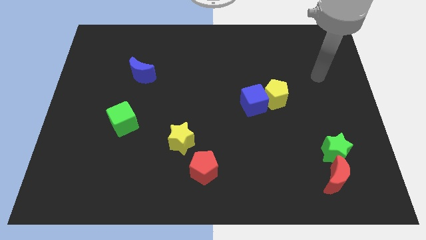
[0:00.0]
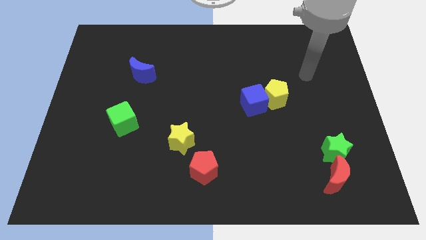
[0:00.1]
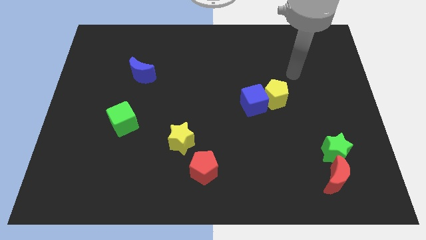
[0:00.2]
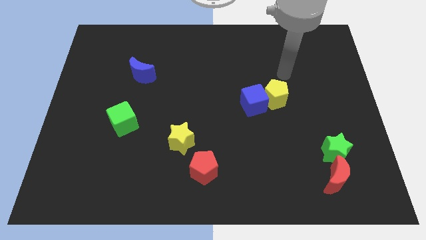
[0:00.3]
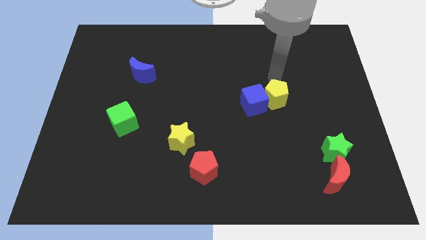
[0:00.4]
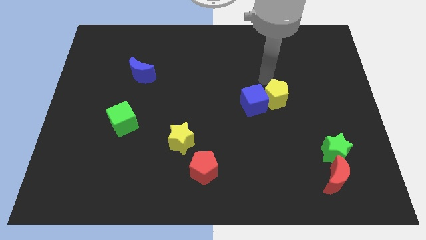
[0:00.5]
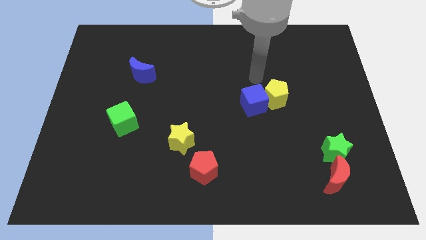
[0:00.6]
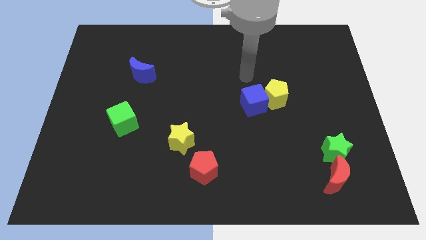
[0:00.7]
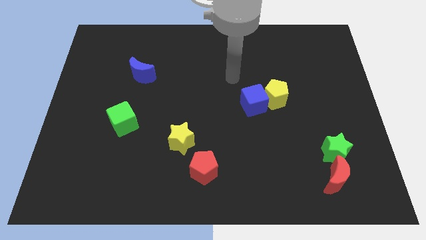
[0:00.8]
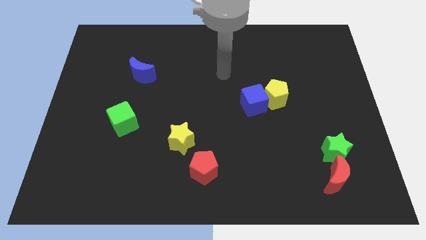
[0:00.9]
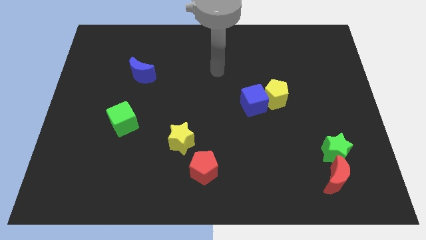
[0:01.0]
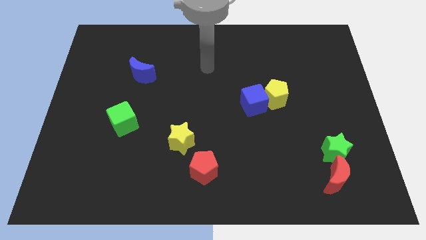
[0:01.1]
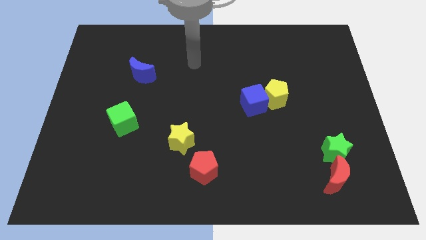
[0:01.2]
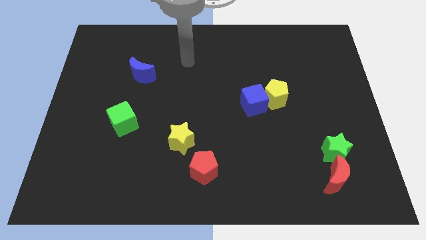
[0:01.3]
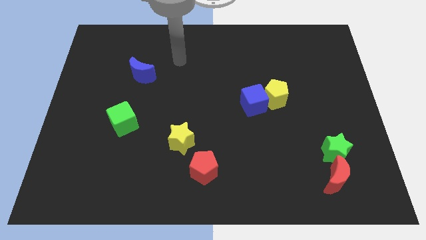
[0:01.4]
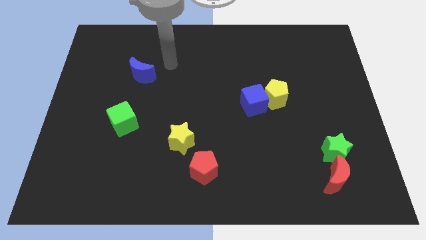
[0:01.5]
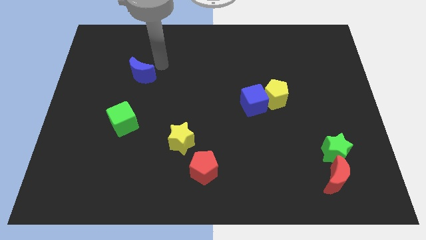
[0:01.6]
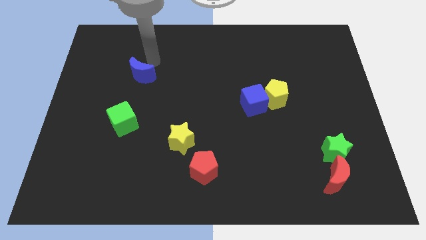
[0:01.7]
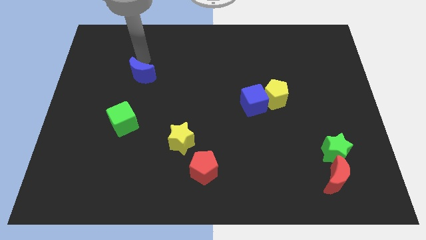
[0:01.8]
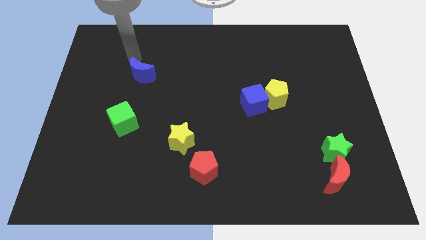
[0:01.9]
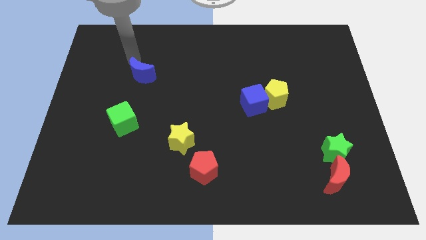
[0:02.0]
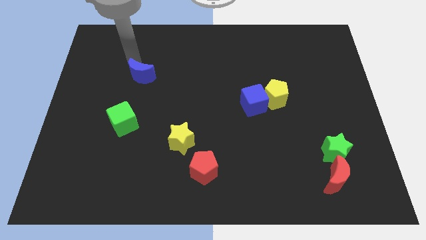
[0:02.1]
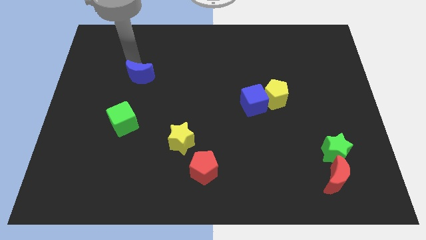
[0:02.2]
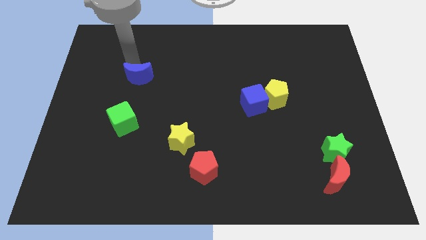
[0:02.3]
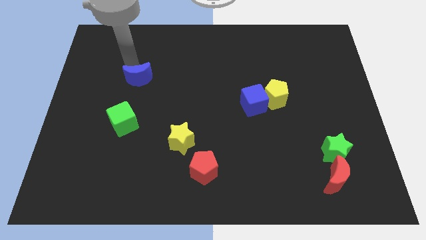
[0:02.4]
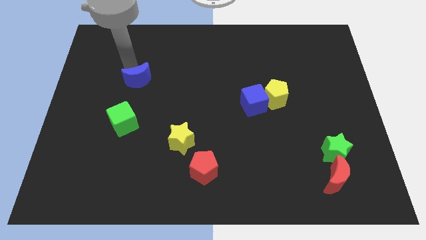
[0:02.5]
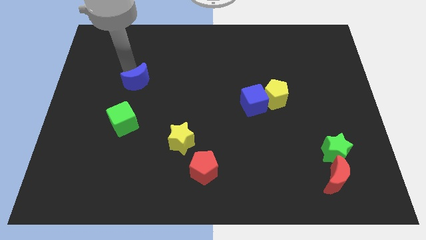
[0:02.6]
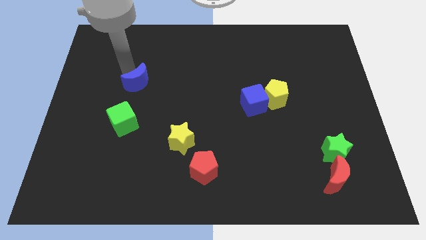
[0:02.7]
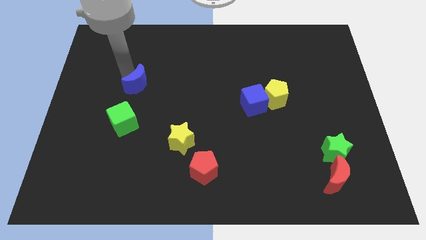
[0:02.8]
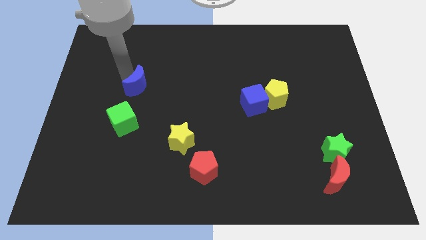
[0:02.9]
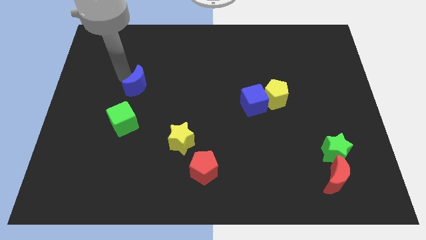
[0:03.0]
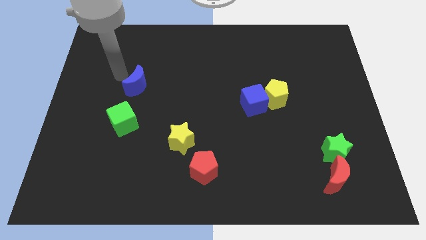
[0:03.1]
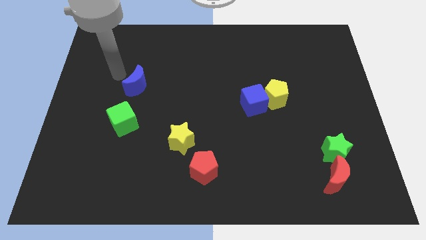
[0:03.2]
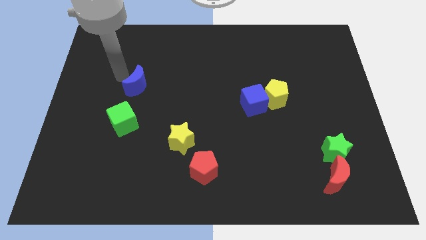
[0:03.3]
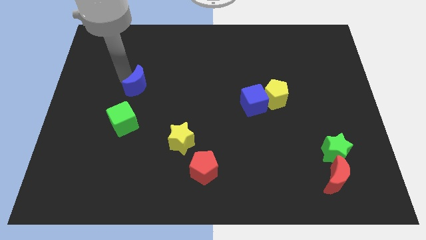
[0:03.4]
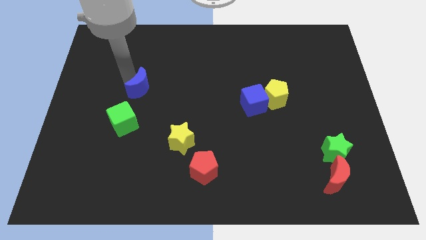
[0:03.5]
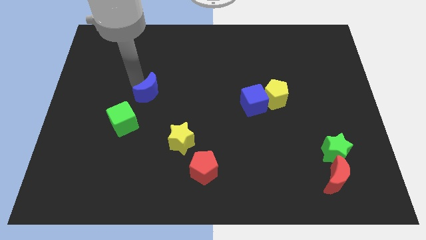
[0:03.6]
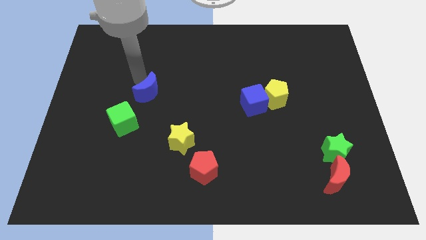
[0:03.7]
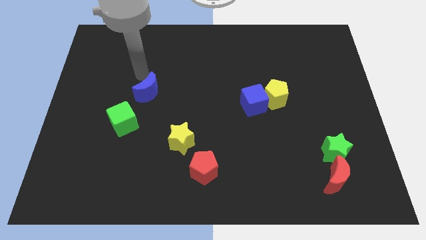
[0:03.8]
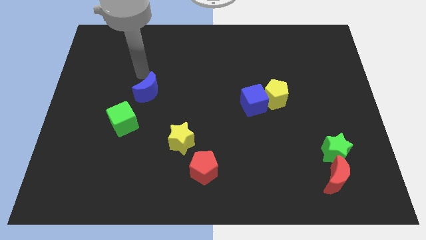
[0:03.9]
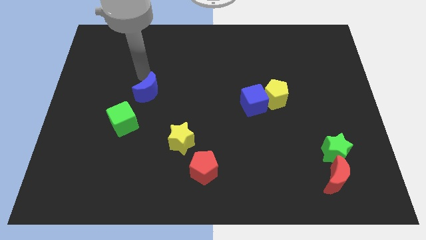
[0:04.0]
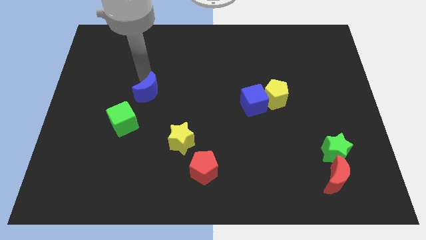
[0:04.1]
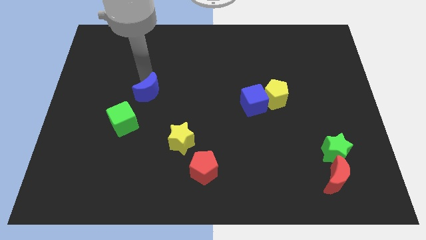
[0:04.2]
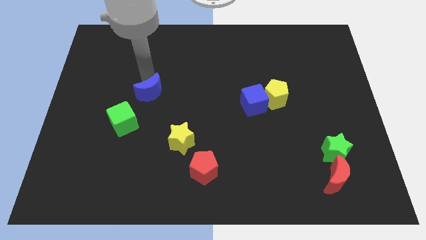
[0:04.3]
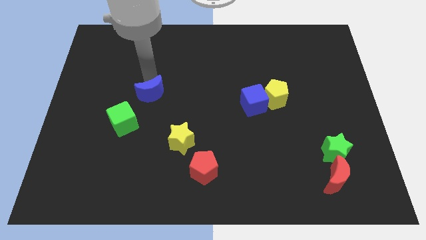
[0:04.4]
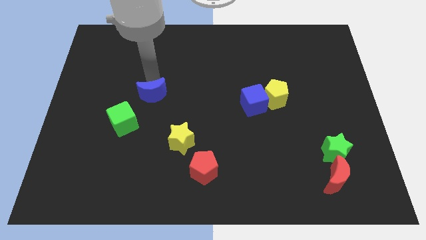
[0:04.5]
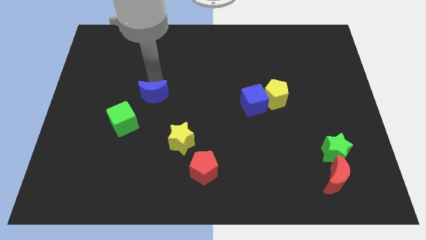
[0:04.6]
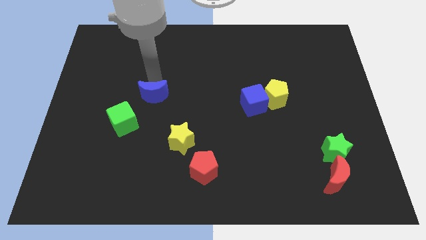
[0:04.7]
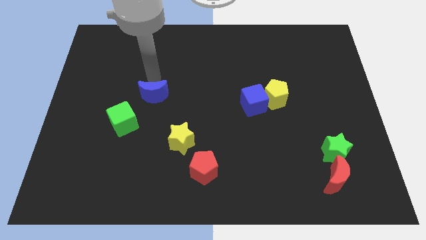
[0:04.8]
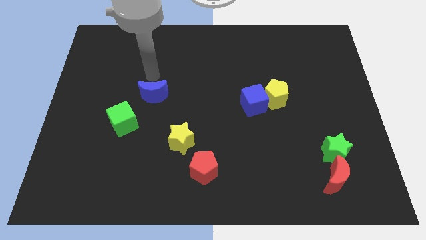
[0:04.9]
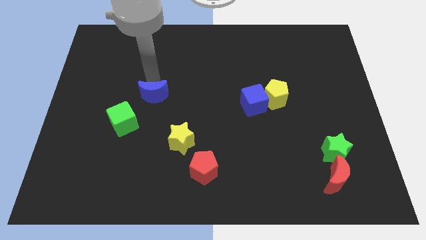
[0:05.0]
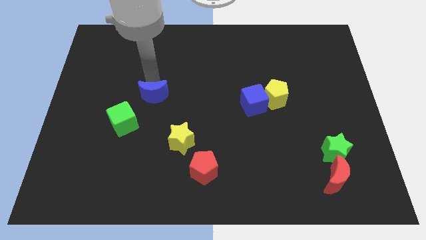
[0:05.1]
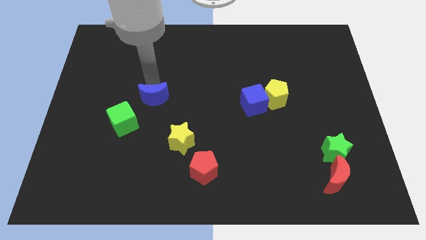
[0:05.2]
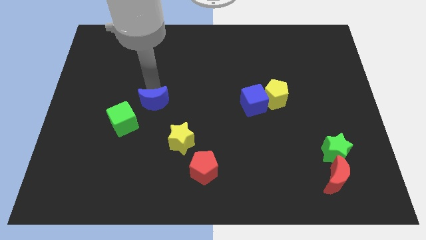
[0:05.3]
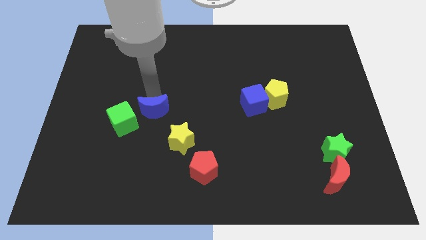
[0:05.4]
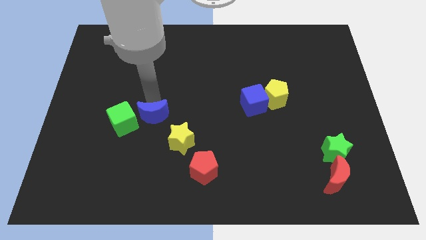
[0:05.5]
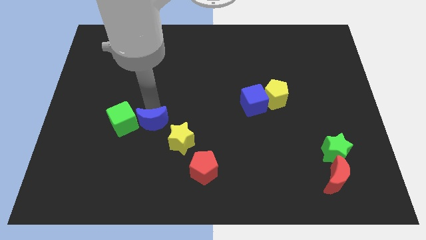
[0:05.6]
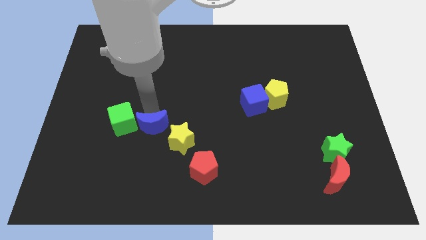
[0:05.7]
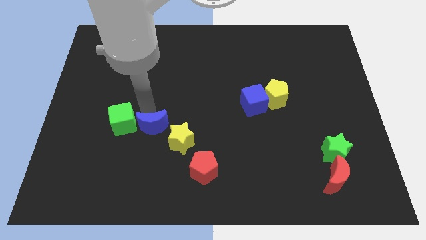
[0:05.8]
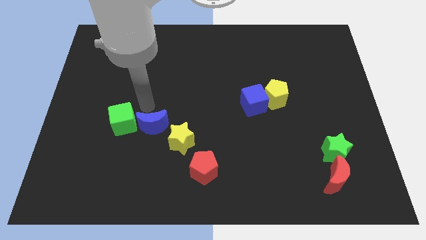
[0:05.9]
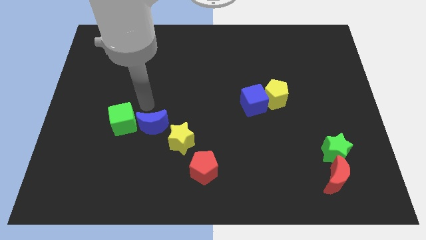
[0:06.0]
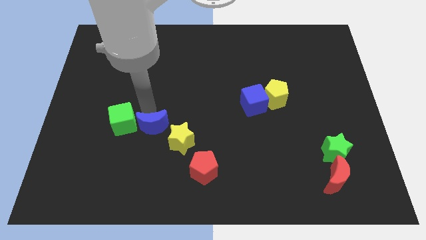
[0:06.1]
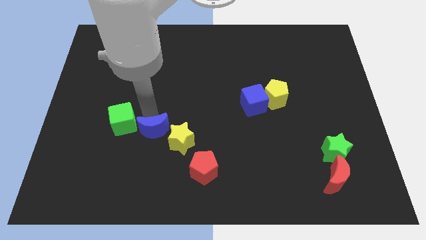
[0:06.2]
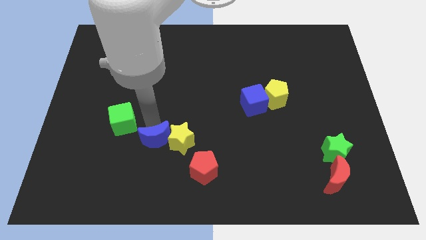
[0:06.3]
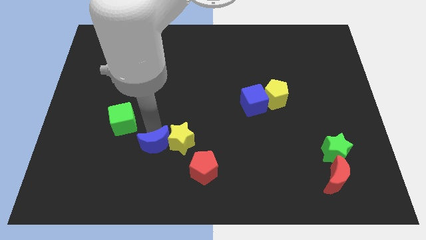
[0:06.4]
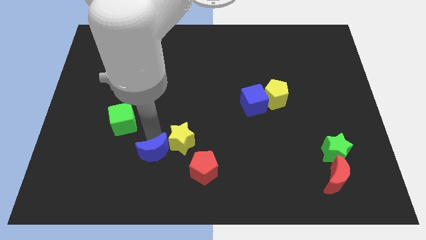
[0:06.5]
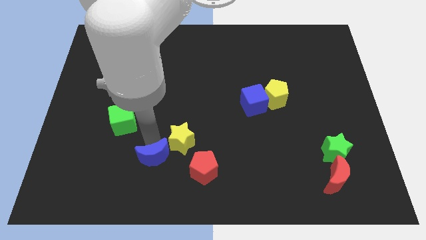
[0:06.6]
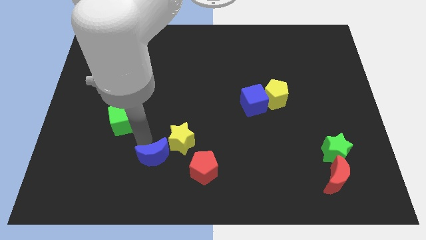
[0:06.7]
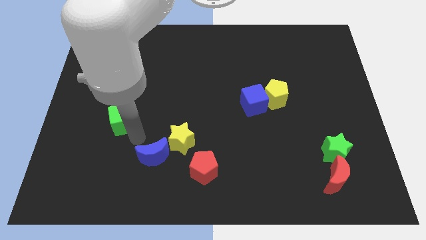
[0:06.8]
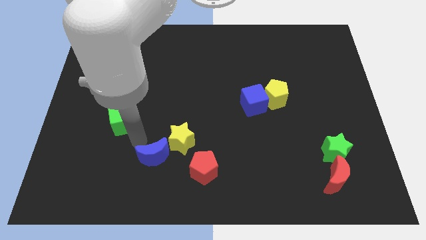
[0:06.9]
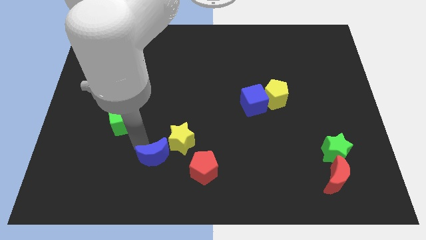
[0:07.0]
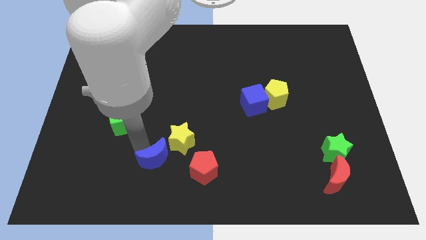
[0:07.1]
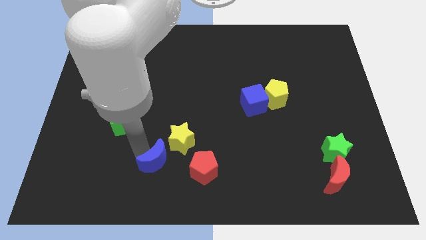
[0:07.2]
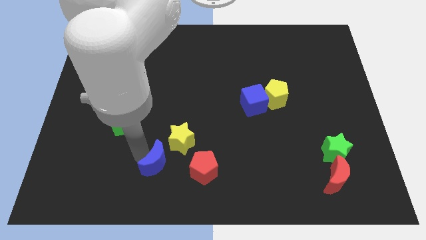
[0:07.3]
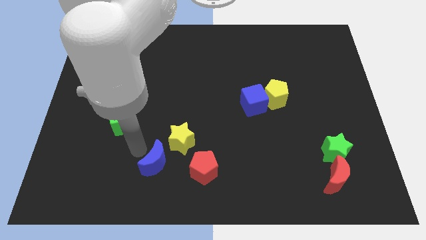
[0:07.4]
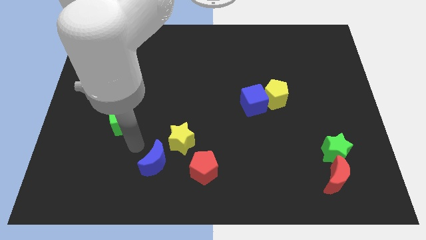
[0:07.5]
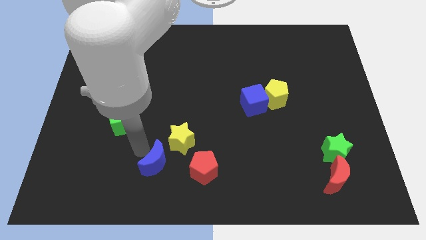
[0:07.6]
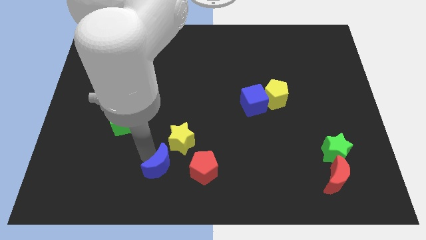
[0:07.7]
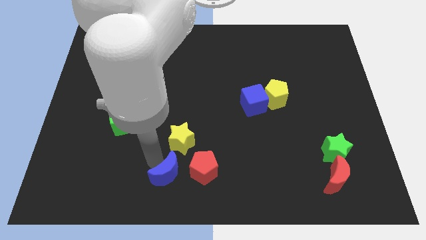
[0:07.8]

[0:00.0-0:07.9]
slide the blue moon to the bottom
